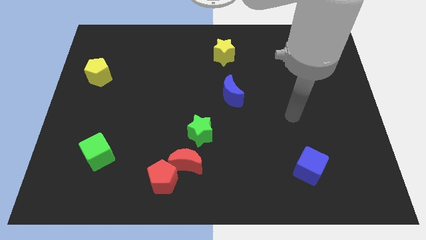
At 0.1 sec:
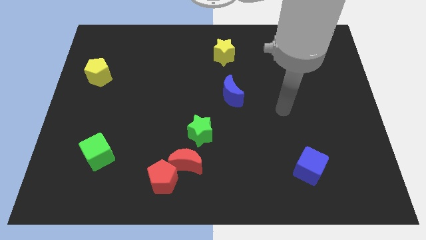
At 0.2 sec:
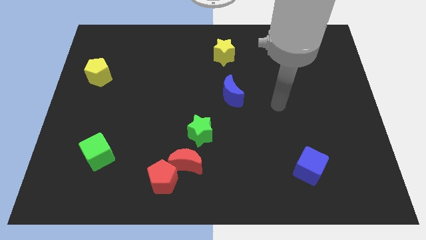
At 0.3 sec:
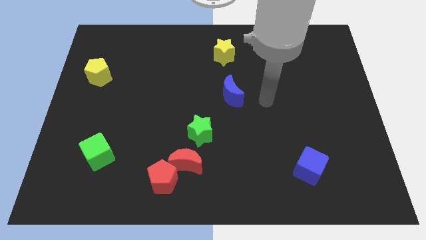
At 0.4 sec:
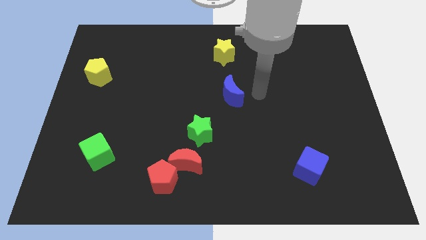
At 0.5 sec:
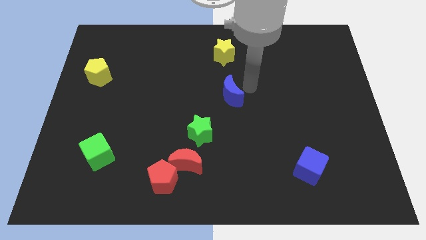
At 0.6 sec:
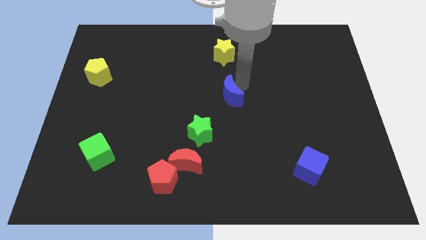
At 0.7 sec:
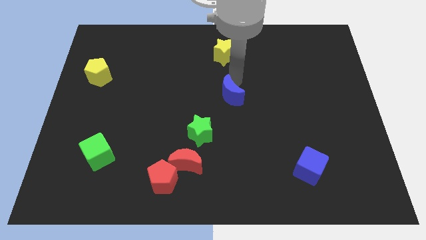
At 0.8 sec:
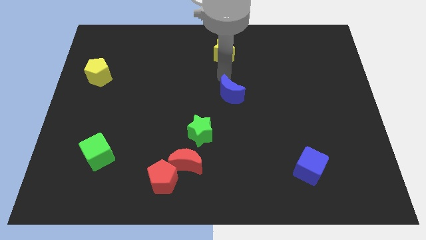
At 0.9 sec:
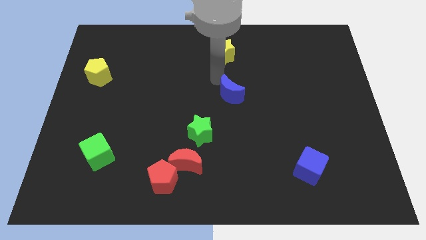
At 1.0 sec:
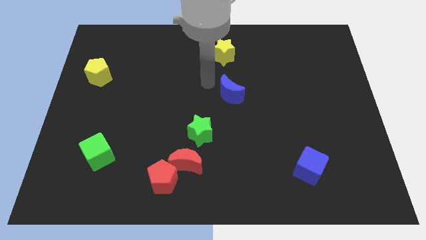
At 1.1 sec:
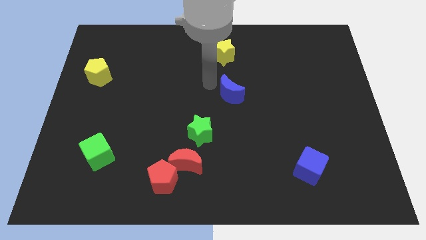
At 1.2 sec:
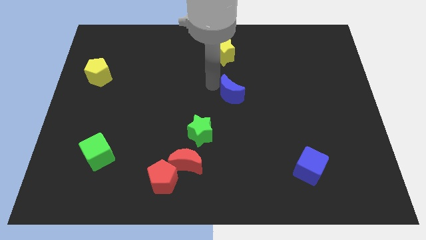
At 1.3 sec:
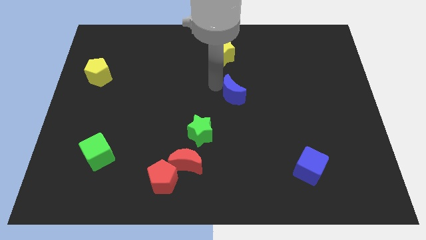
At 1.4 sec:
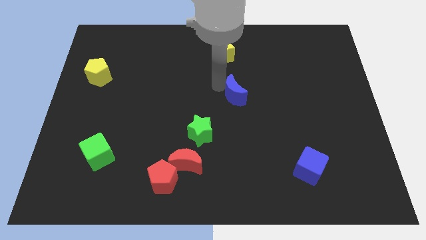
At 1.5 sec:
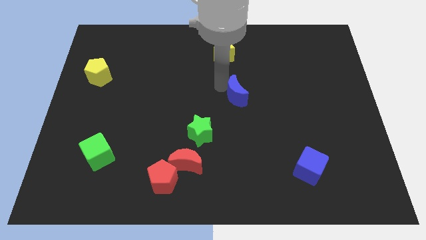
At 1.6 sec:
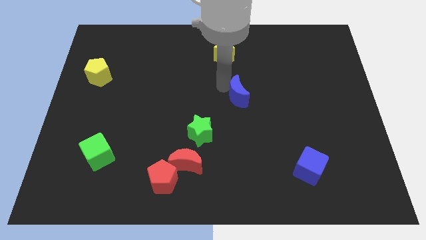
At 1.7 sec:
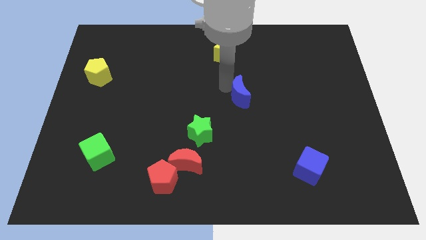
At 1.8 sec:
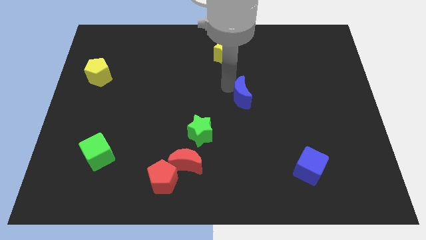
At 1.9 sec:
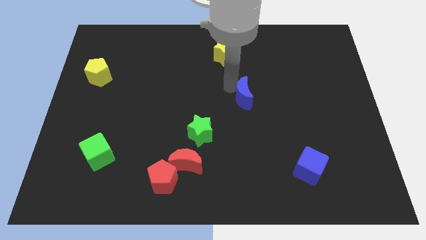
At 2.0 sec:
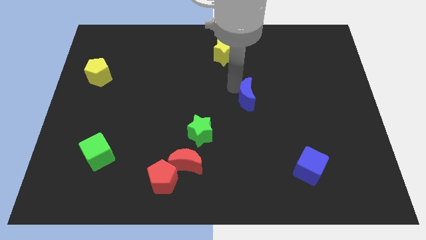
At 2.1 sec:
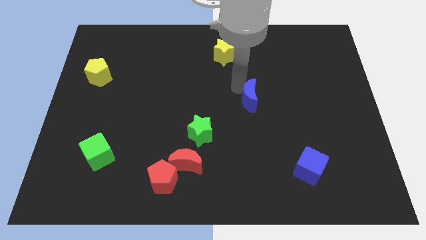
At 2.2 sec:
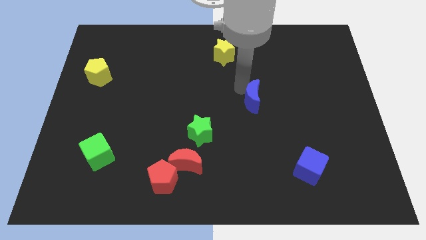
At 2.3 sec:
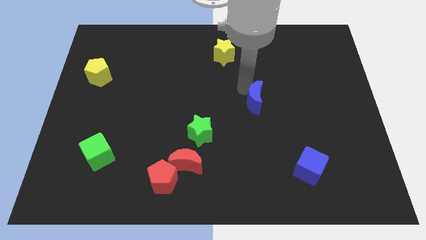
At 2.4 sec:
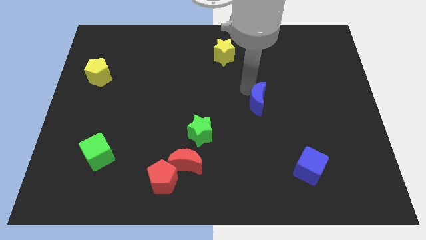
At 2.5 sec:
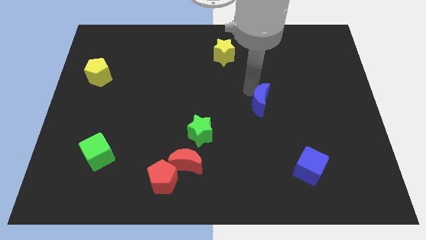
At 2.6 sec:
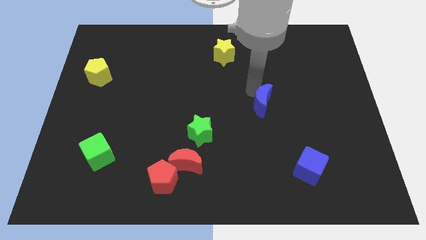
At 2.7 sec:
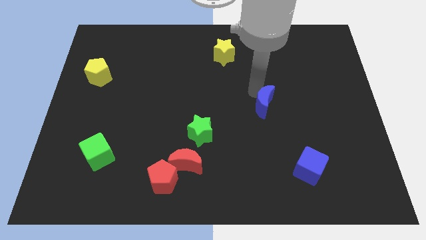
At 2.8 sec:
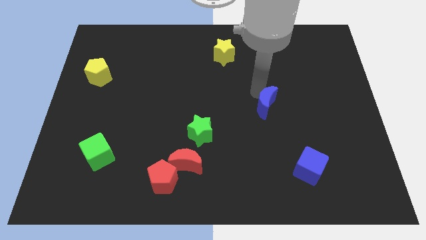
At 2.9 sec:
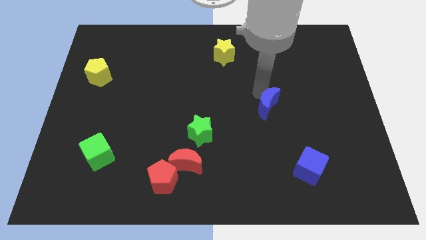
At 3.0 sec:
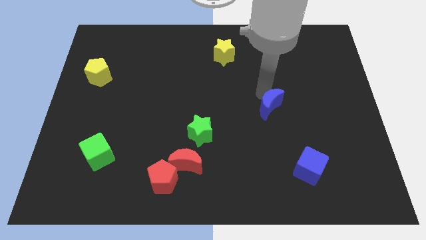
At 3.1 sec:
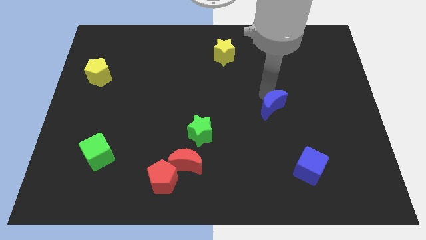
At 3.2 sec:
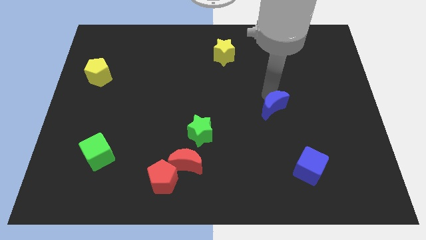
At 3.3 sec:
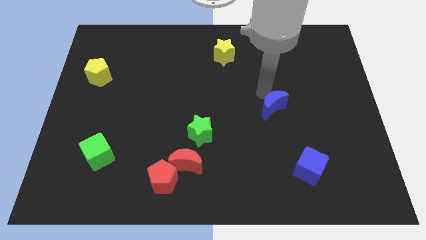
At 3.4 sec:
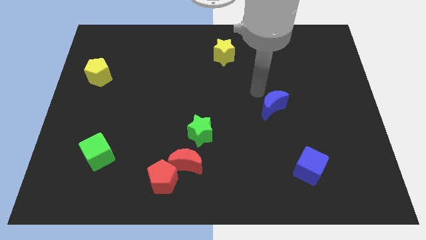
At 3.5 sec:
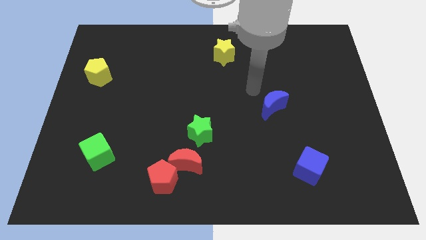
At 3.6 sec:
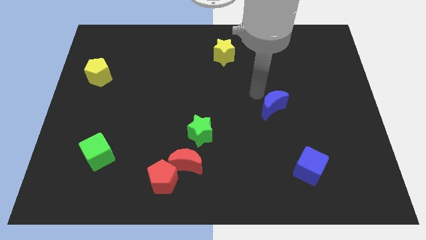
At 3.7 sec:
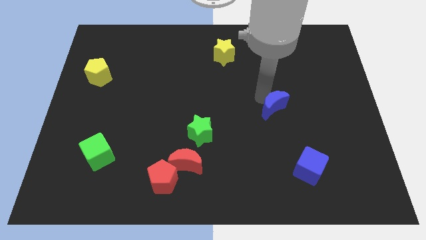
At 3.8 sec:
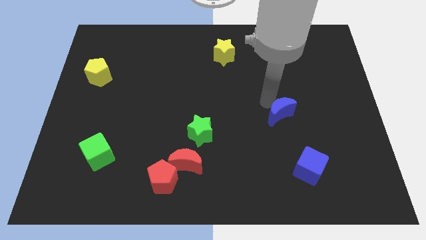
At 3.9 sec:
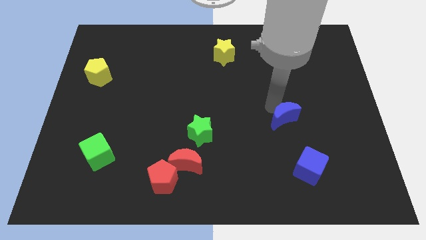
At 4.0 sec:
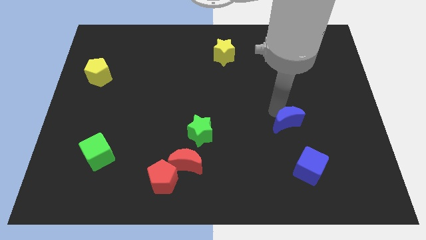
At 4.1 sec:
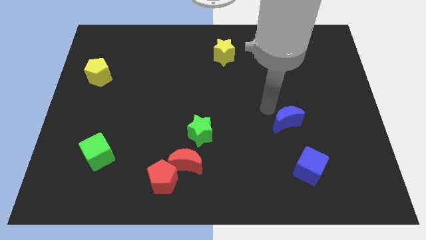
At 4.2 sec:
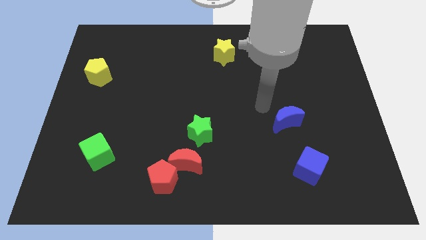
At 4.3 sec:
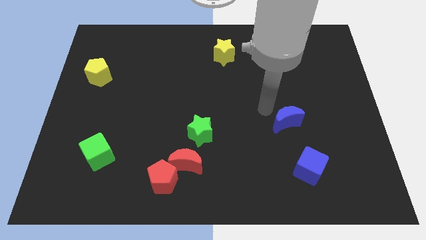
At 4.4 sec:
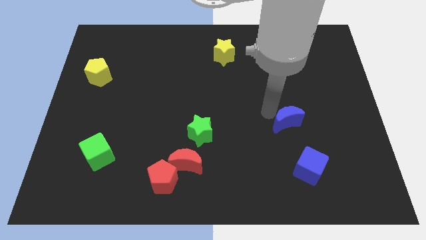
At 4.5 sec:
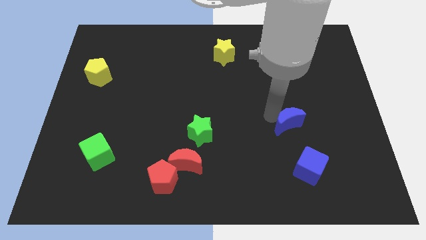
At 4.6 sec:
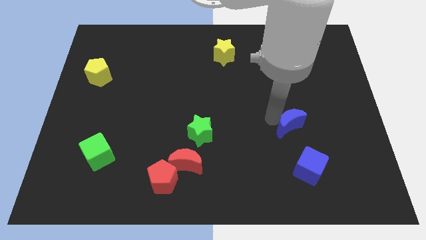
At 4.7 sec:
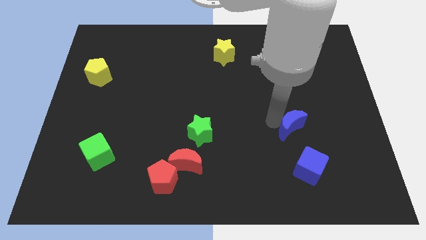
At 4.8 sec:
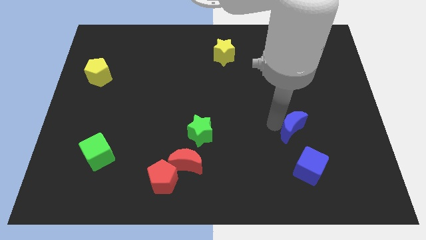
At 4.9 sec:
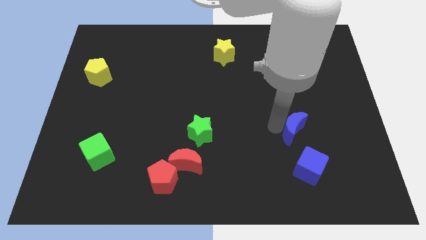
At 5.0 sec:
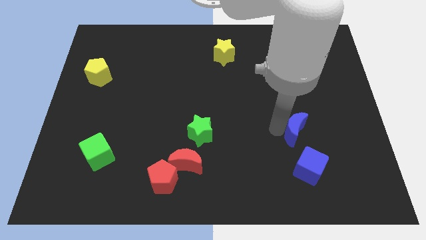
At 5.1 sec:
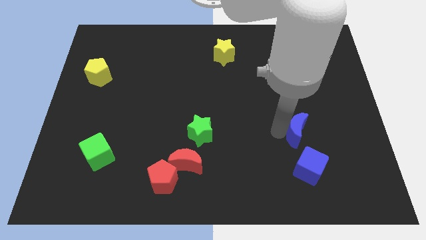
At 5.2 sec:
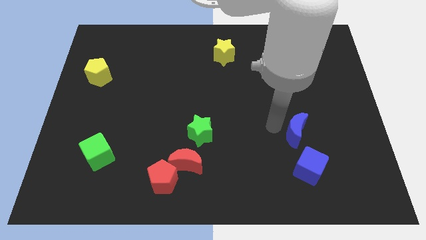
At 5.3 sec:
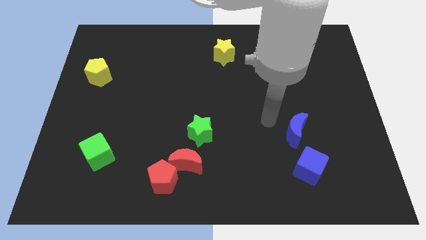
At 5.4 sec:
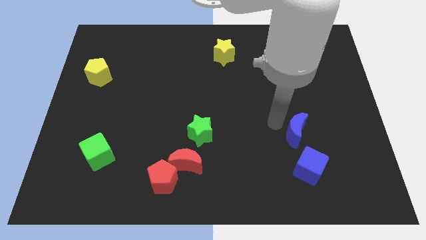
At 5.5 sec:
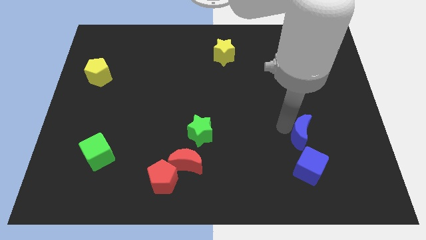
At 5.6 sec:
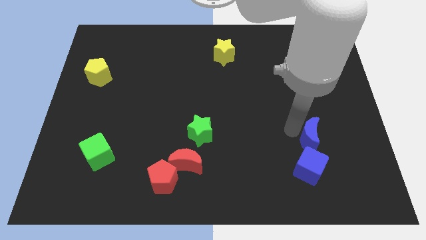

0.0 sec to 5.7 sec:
put the blue moon to the top right side of the blue cube

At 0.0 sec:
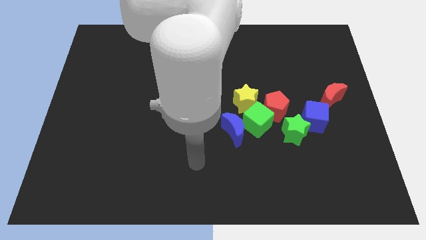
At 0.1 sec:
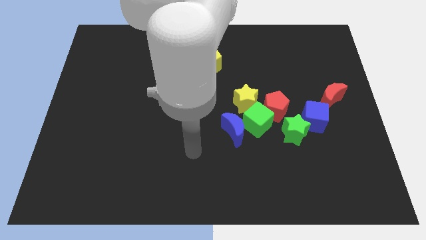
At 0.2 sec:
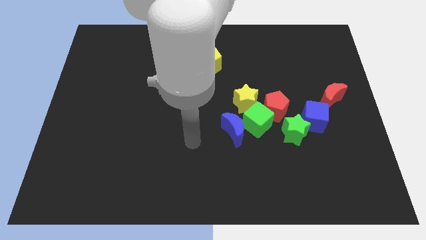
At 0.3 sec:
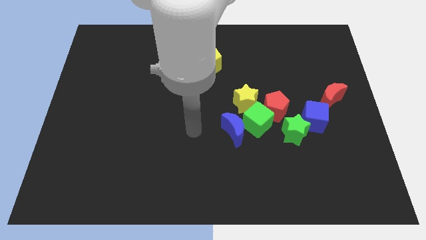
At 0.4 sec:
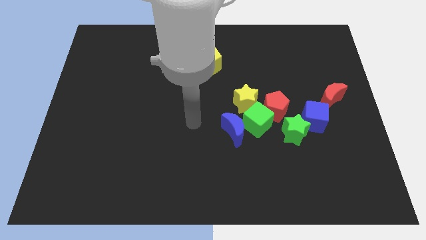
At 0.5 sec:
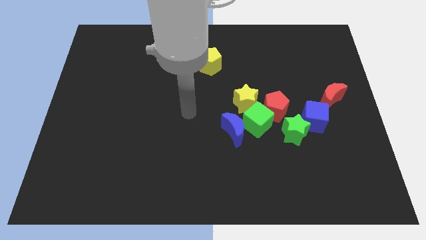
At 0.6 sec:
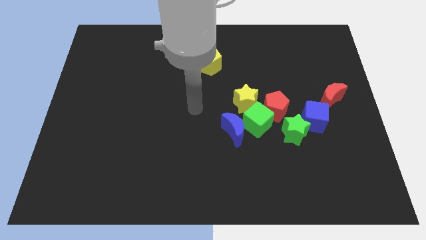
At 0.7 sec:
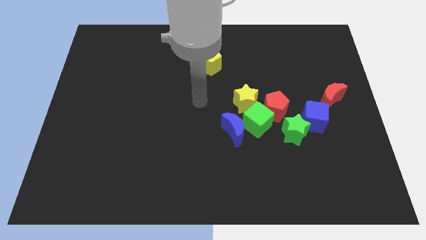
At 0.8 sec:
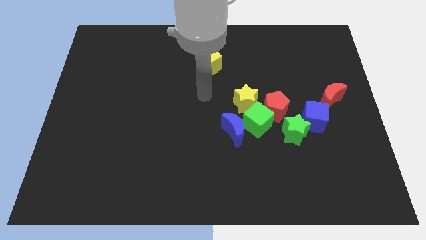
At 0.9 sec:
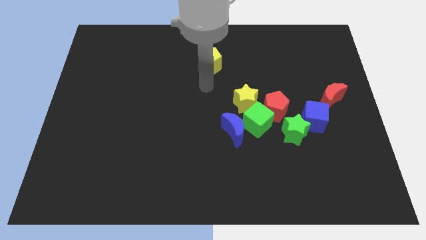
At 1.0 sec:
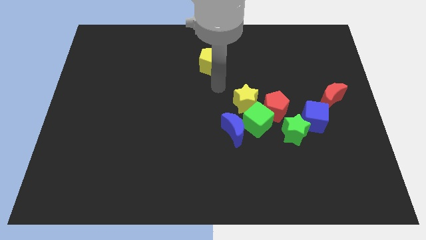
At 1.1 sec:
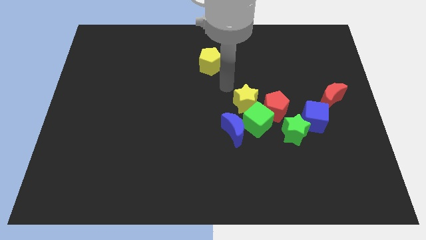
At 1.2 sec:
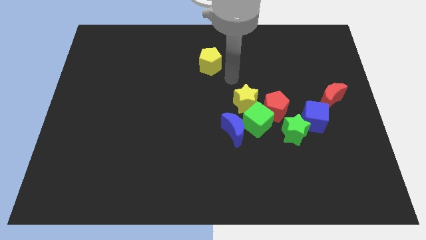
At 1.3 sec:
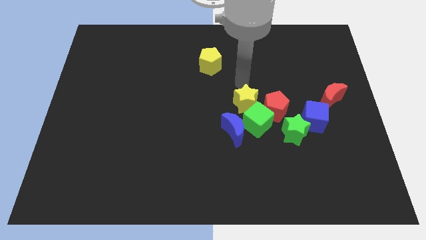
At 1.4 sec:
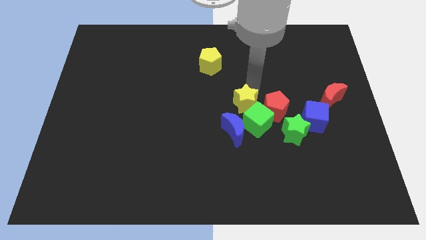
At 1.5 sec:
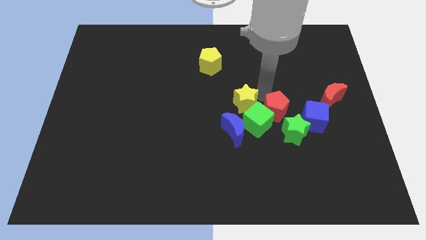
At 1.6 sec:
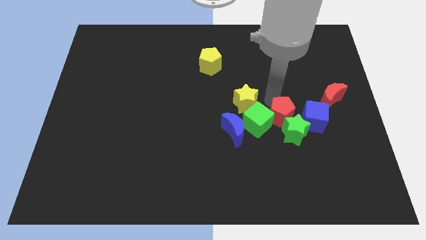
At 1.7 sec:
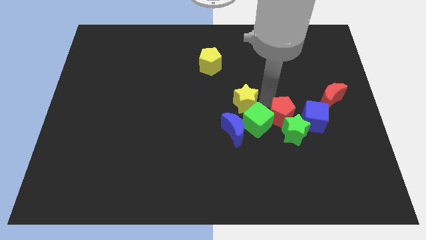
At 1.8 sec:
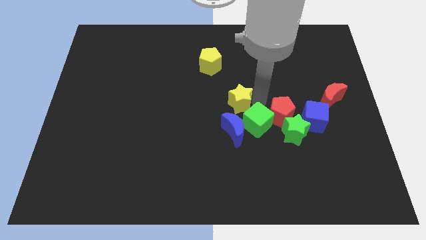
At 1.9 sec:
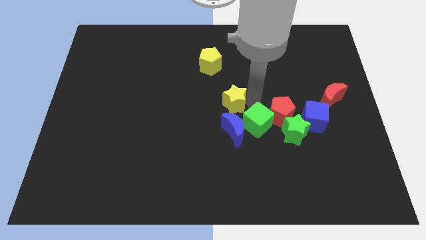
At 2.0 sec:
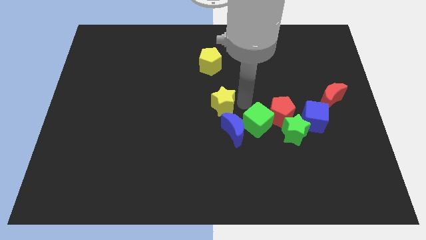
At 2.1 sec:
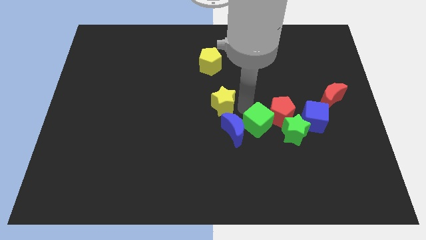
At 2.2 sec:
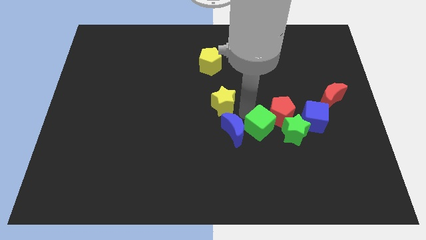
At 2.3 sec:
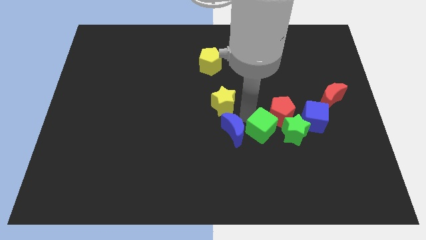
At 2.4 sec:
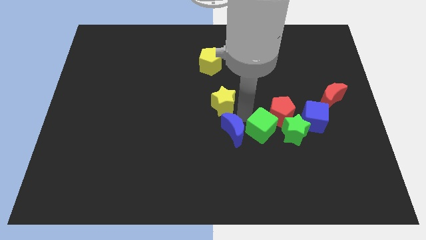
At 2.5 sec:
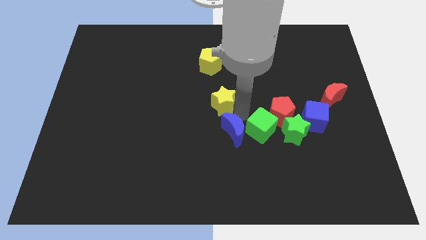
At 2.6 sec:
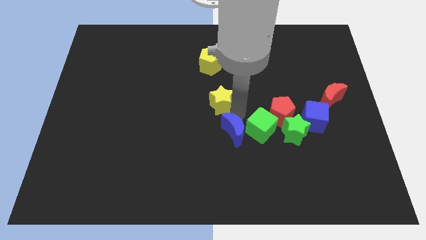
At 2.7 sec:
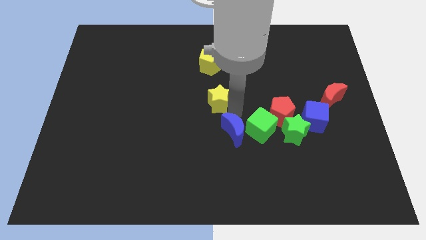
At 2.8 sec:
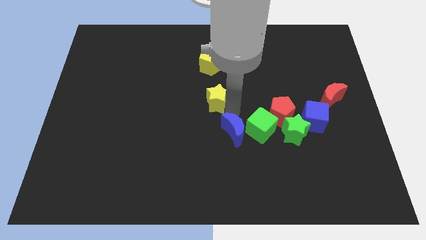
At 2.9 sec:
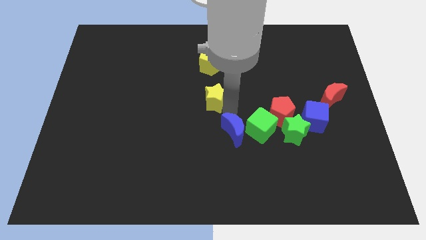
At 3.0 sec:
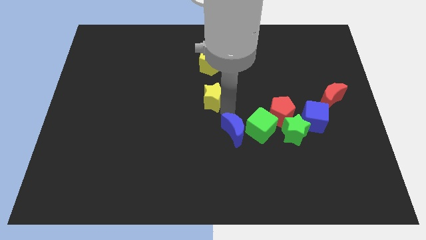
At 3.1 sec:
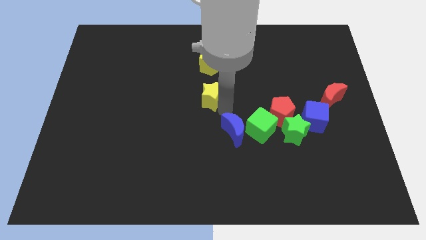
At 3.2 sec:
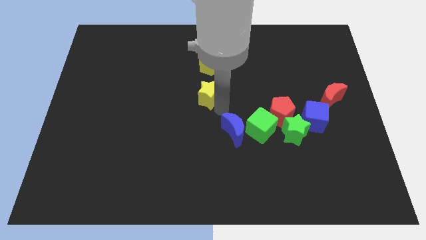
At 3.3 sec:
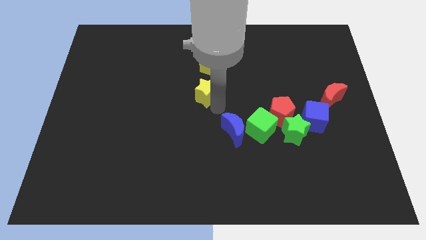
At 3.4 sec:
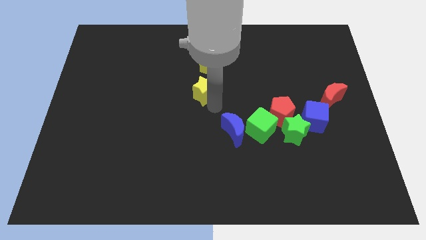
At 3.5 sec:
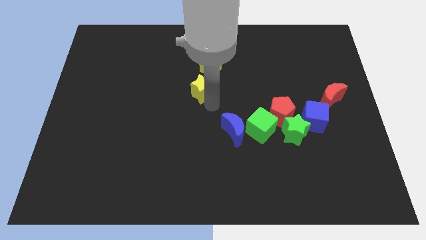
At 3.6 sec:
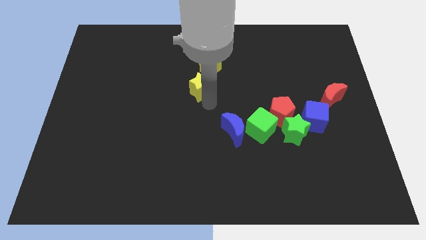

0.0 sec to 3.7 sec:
move the yellow star diagonally down and to the left of the yellow pentagon
